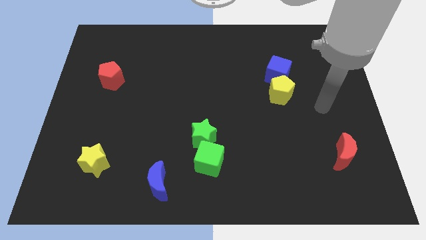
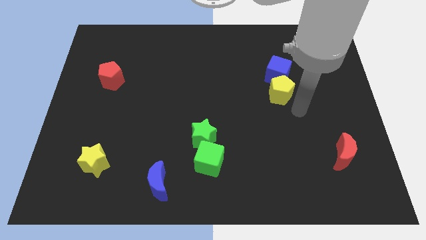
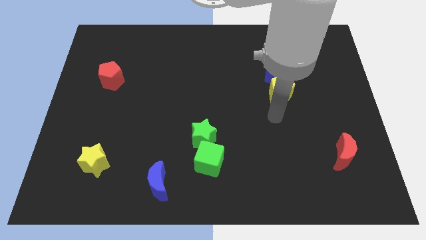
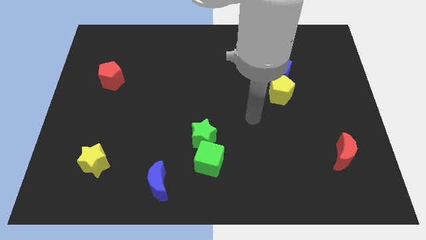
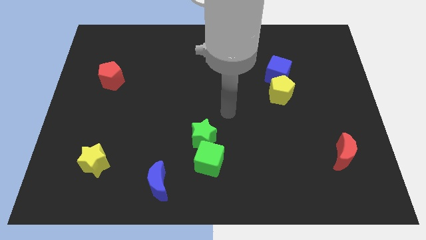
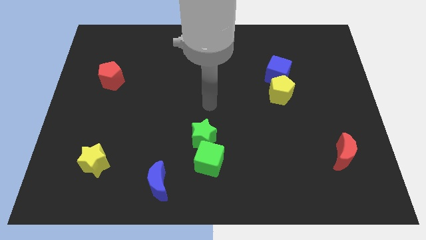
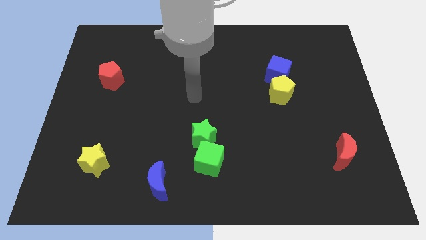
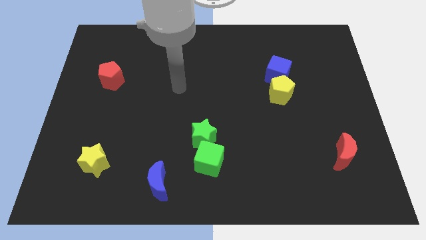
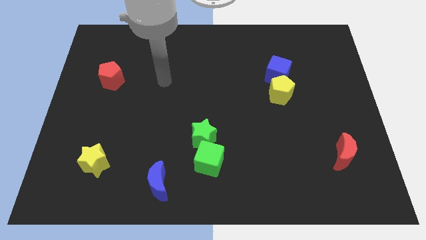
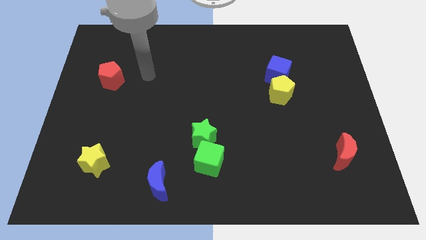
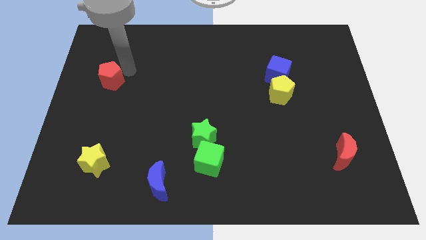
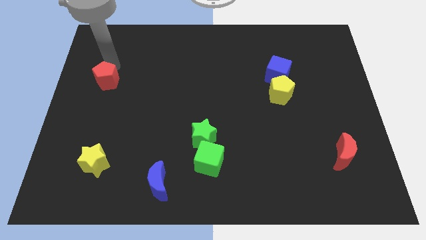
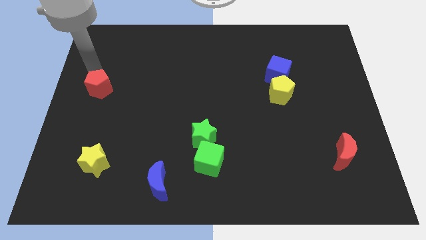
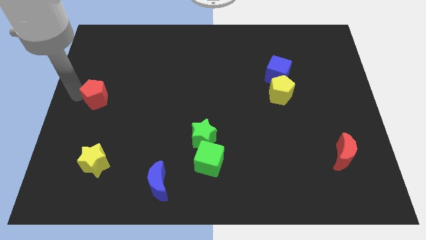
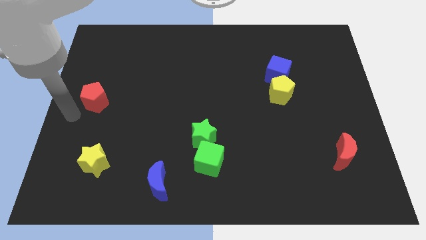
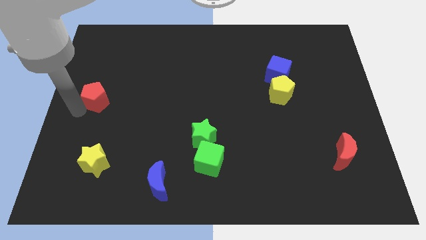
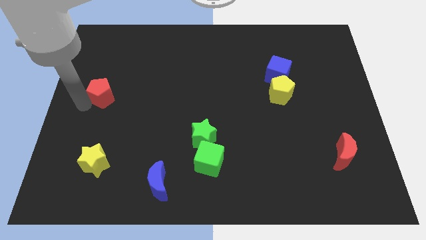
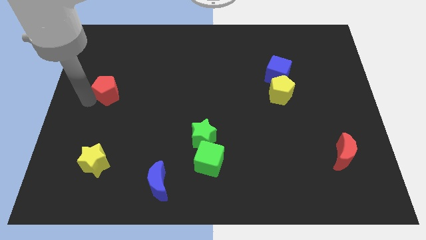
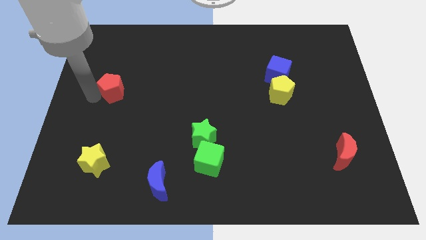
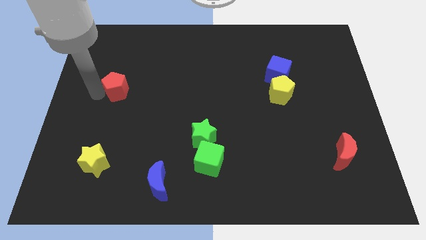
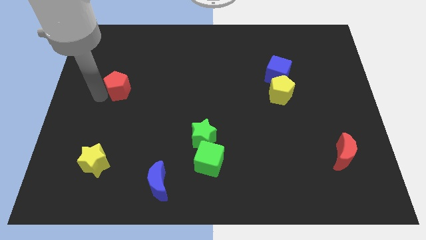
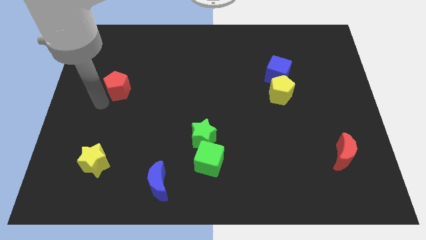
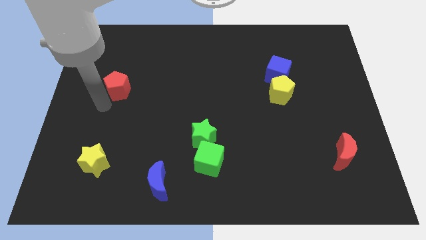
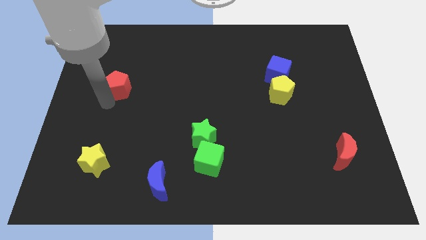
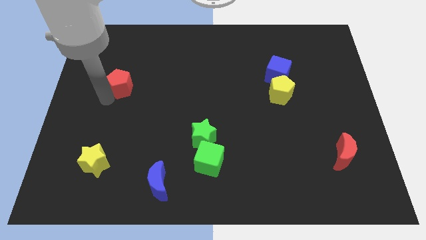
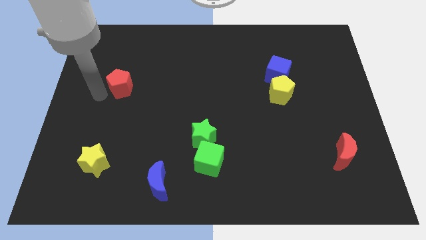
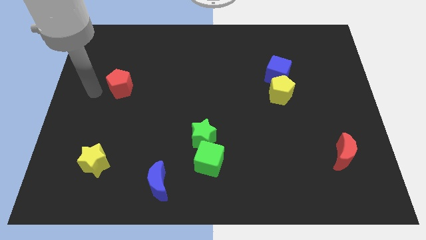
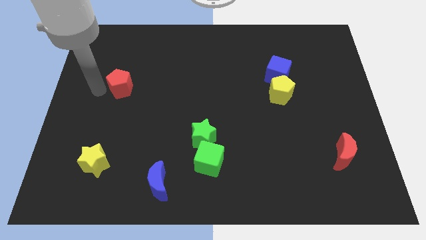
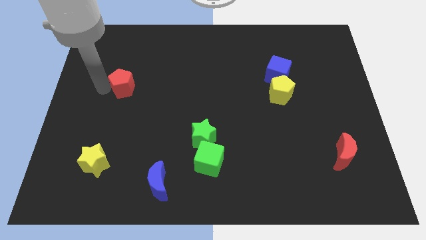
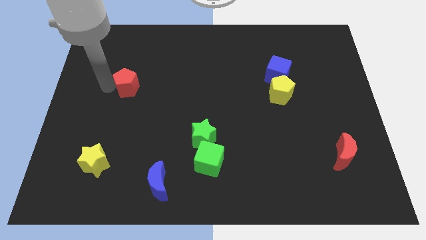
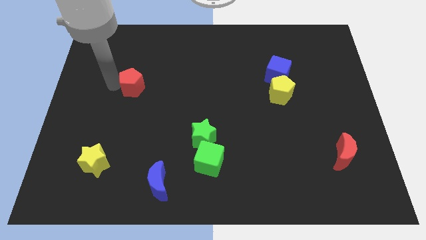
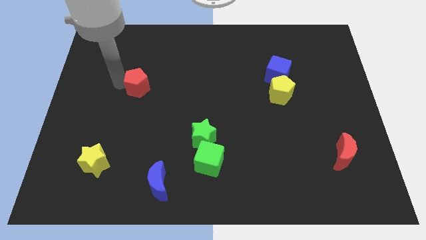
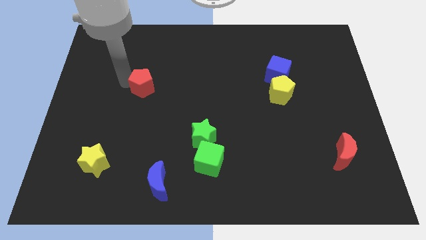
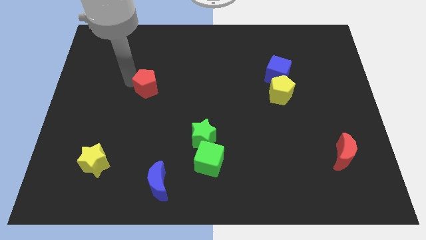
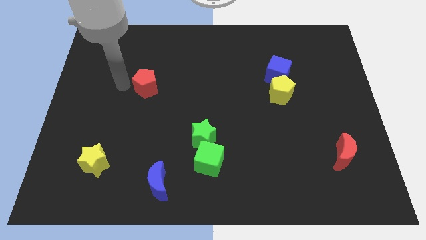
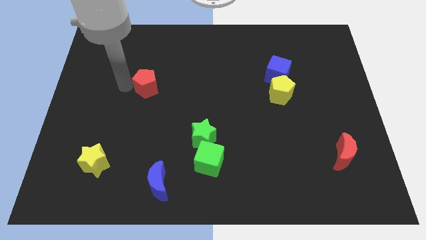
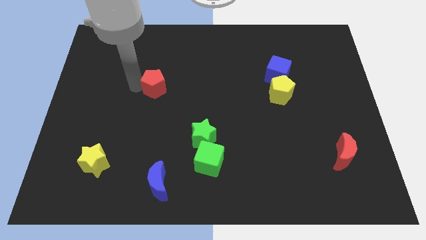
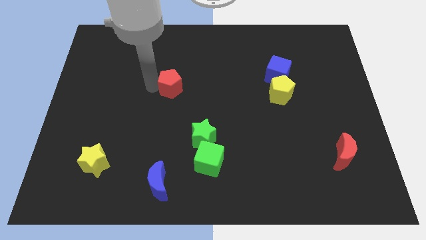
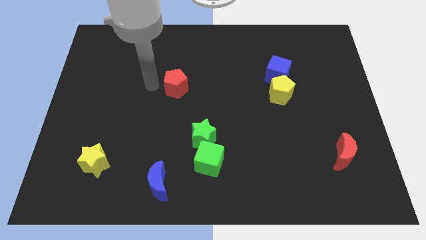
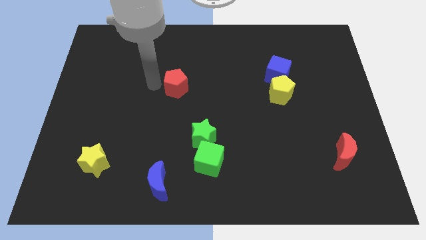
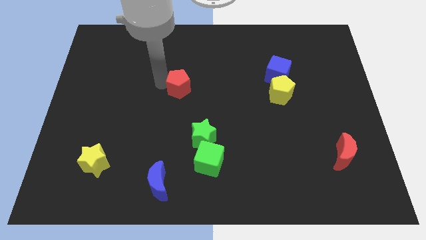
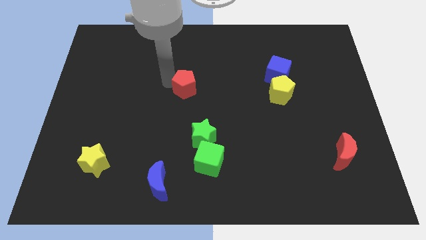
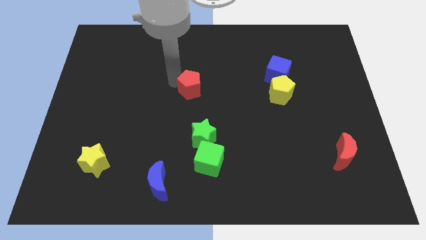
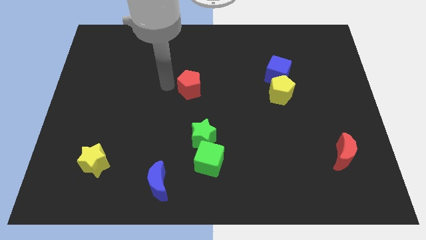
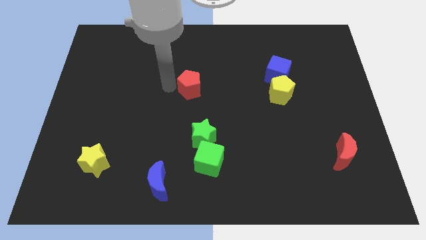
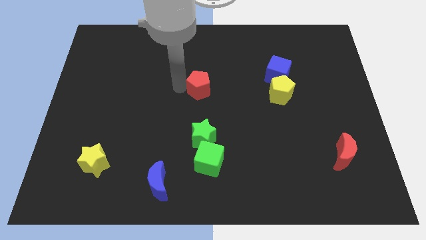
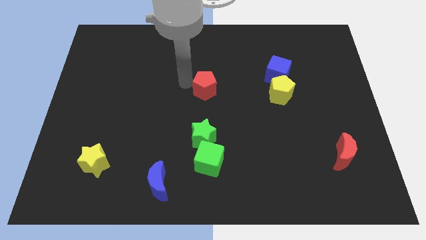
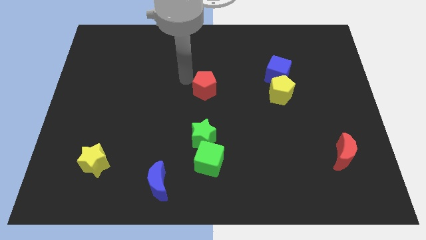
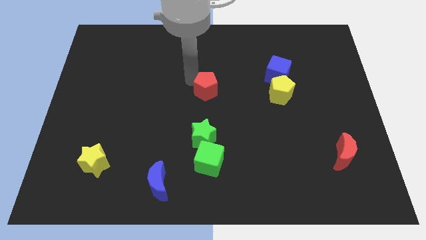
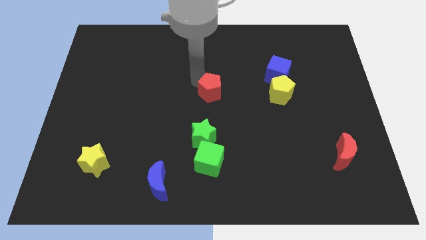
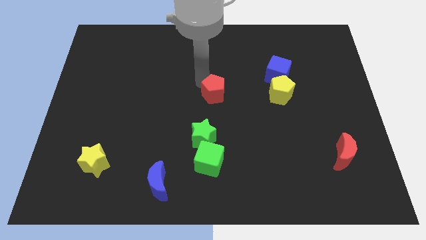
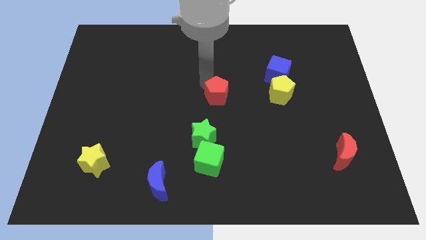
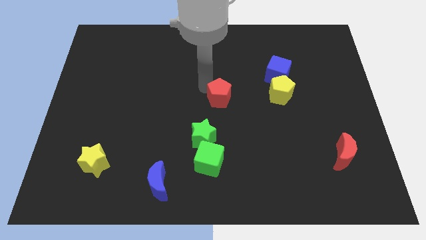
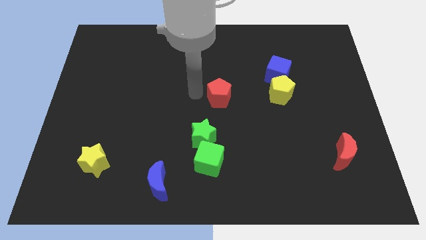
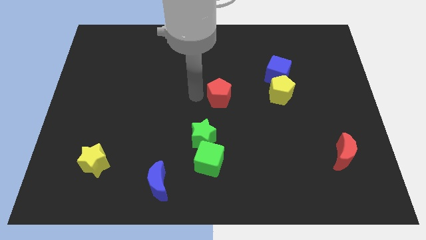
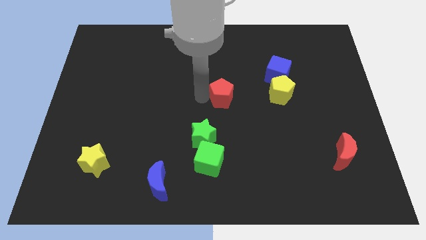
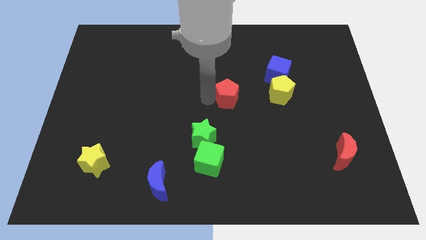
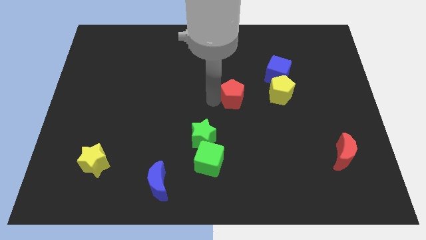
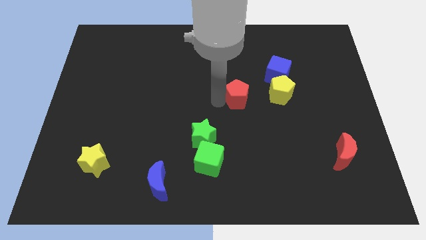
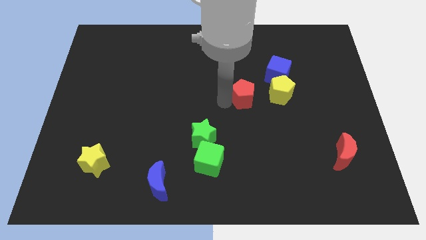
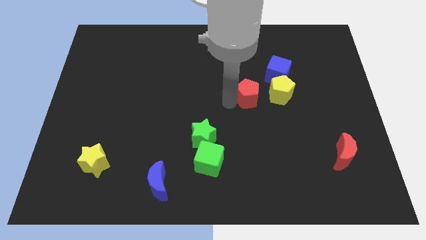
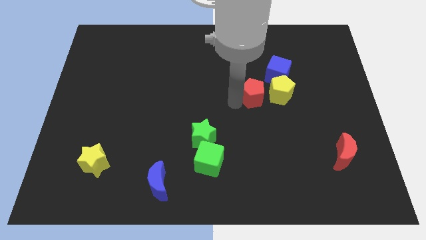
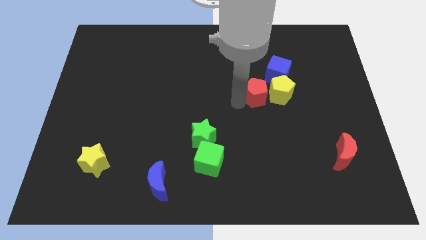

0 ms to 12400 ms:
move the red pentagon towards the yellow pentagon

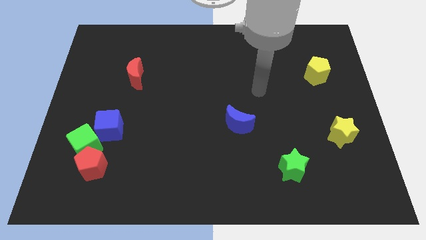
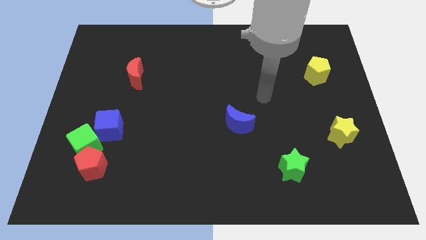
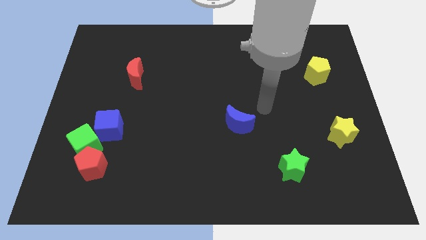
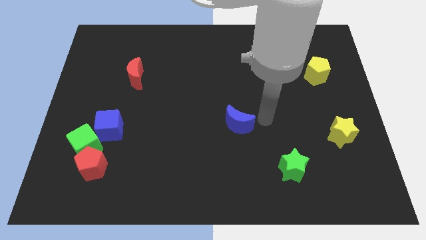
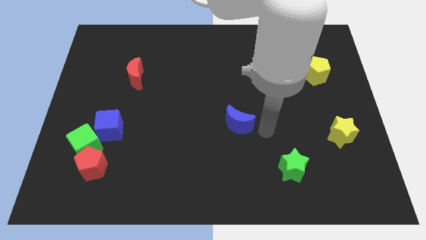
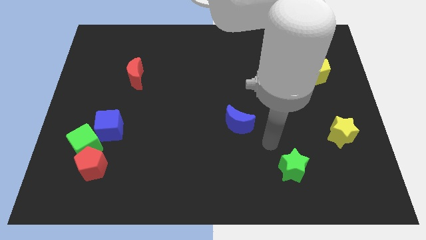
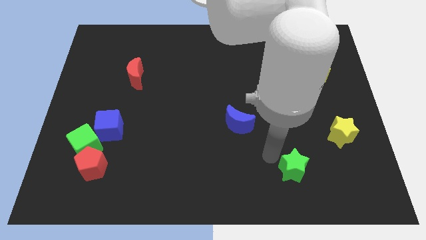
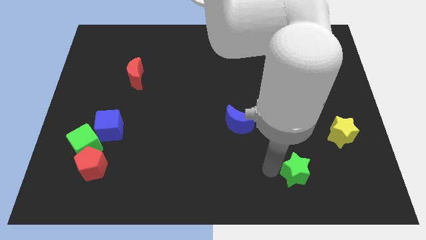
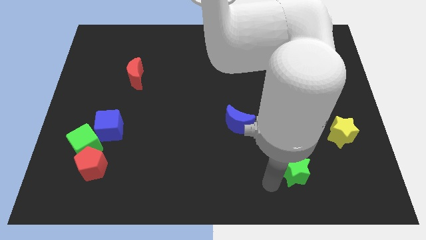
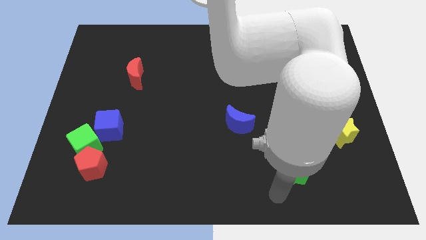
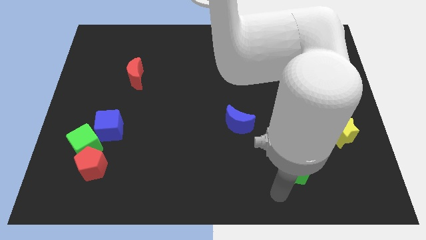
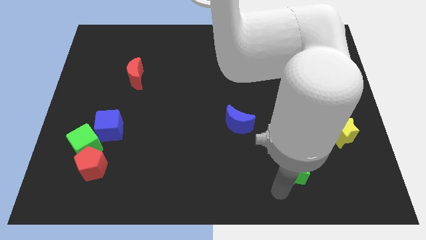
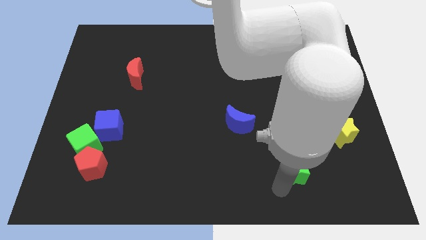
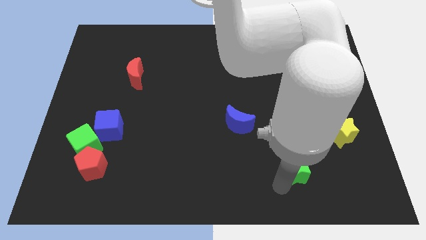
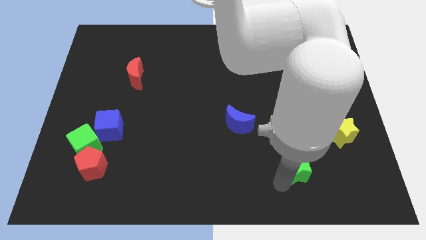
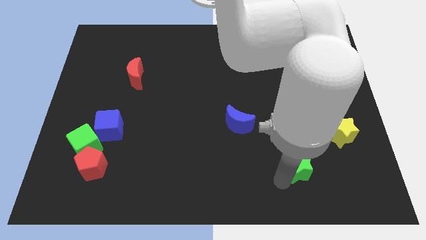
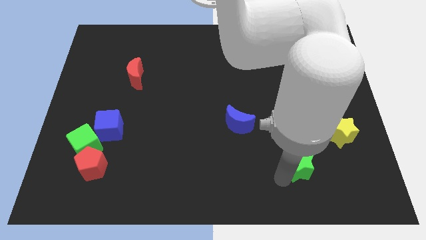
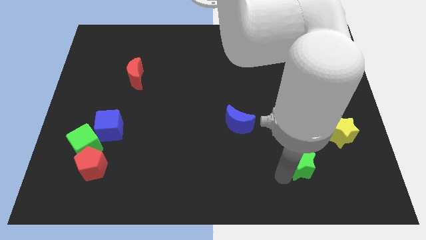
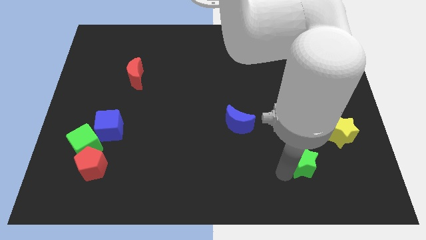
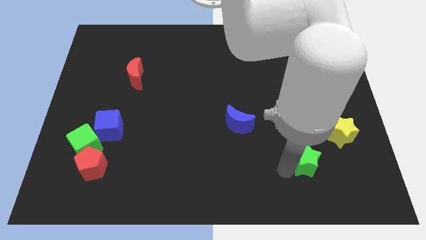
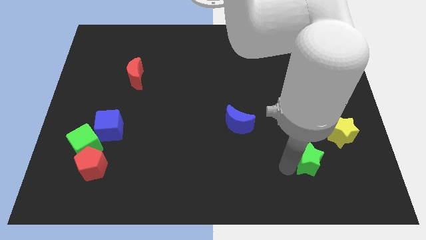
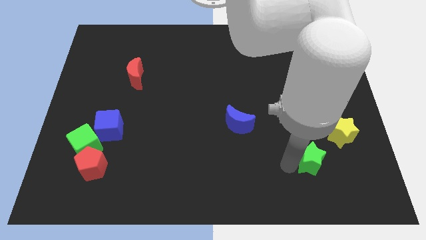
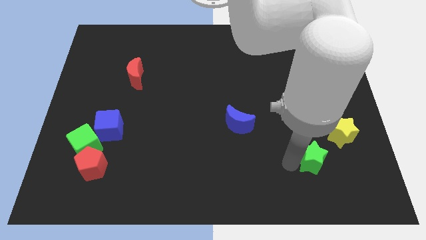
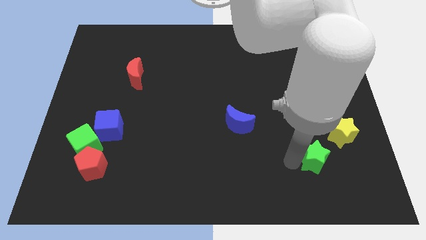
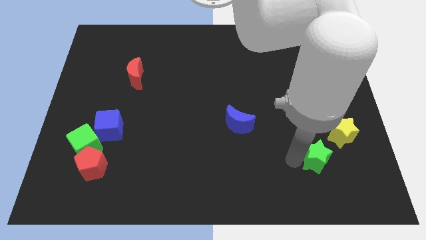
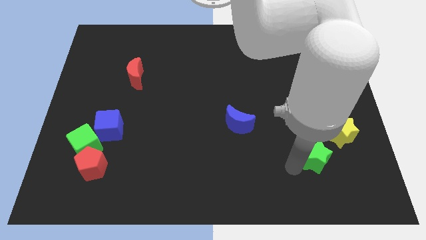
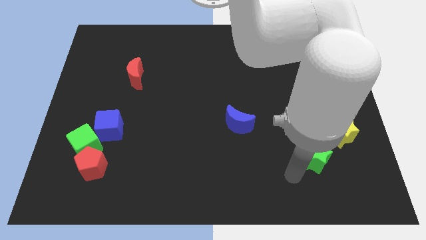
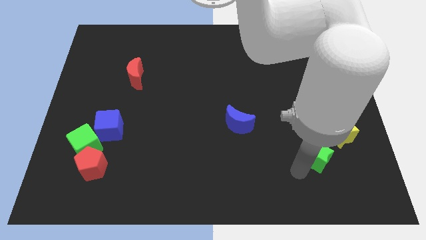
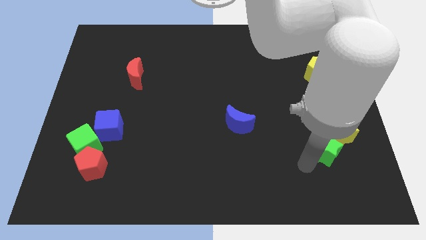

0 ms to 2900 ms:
move the green star towards the yellow star
